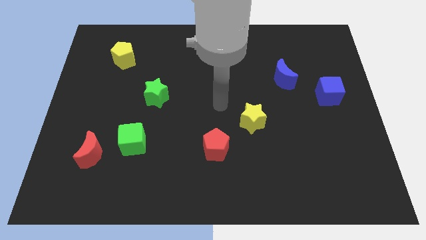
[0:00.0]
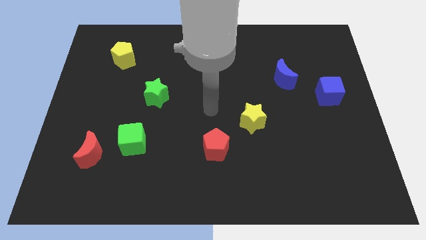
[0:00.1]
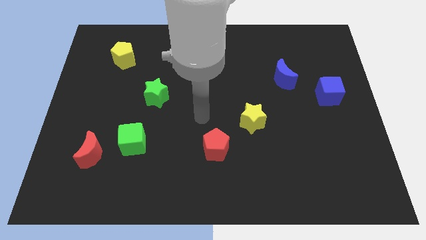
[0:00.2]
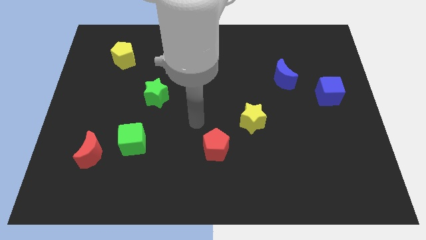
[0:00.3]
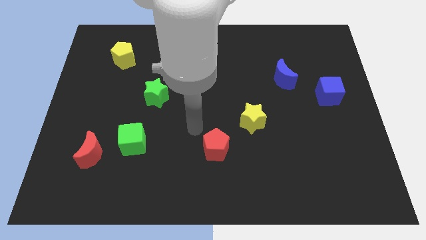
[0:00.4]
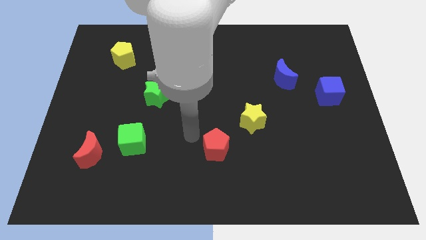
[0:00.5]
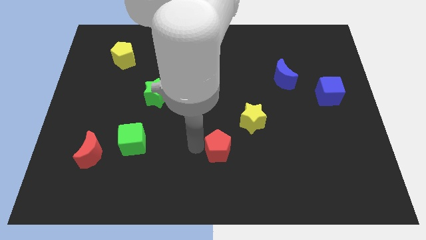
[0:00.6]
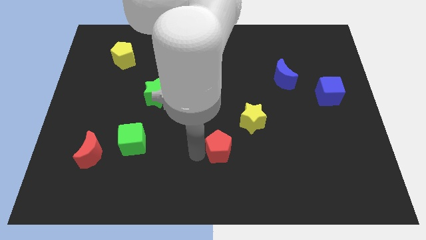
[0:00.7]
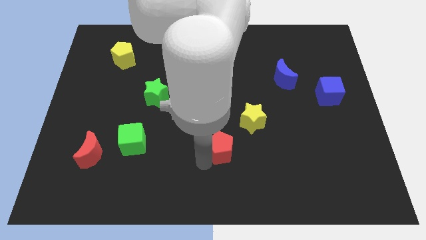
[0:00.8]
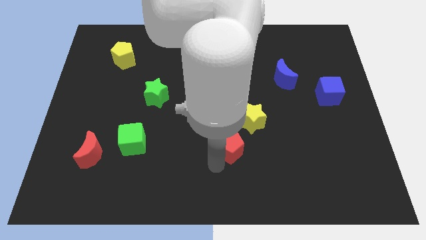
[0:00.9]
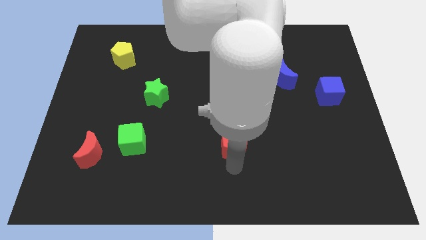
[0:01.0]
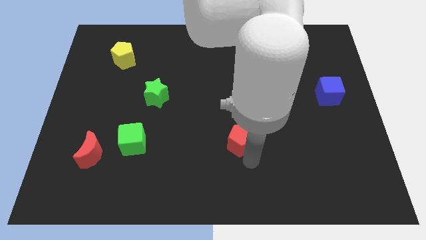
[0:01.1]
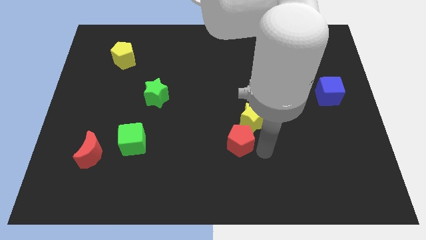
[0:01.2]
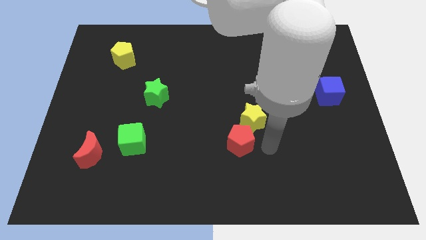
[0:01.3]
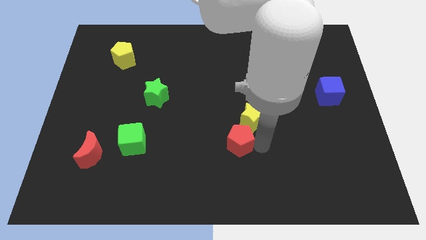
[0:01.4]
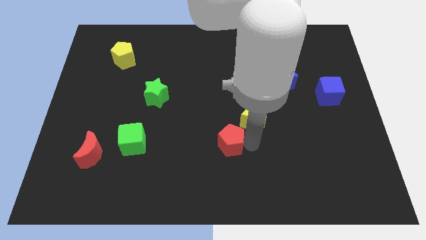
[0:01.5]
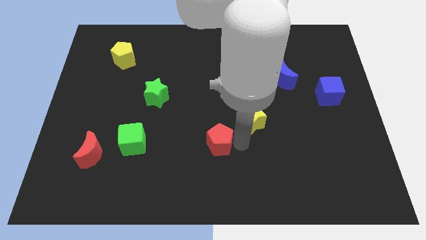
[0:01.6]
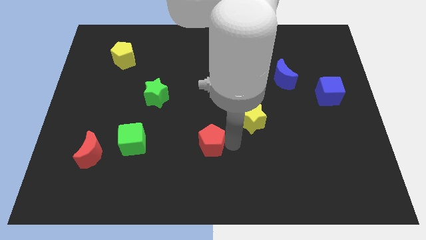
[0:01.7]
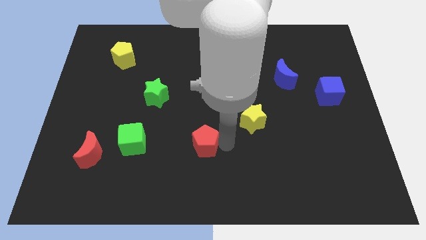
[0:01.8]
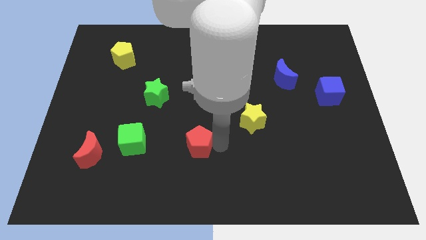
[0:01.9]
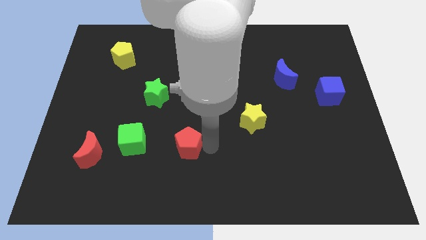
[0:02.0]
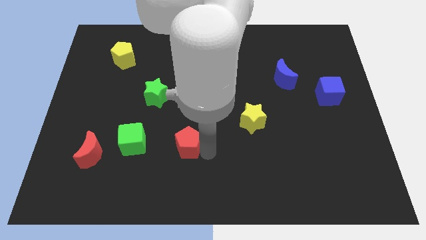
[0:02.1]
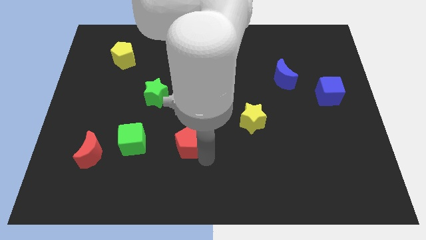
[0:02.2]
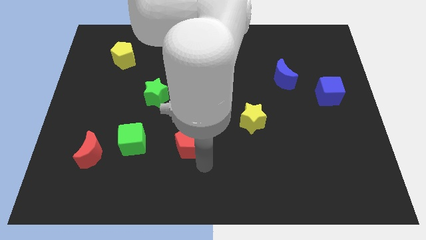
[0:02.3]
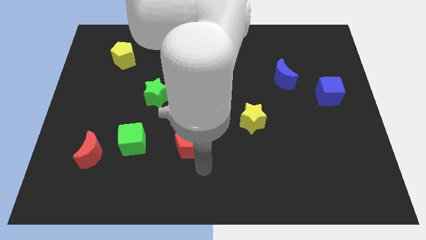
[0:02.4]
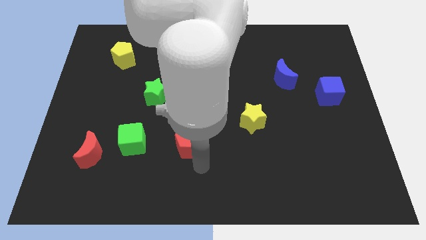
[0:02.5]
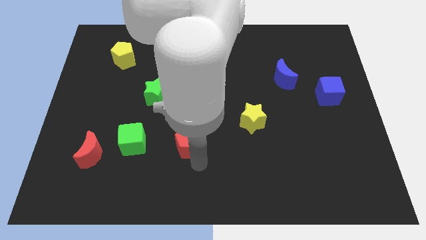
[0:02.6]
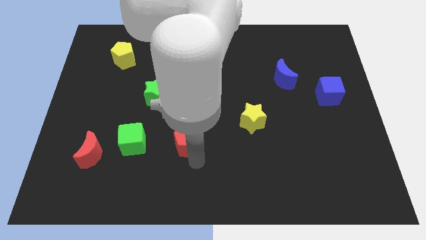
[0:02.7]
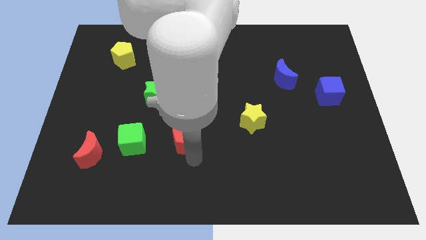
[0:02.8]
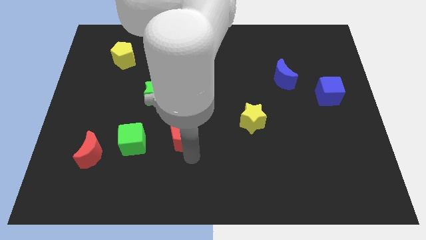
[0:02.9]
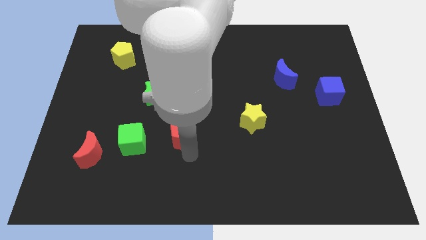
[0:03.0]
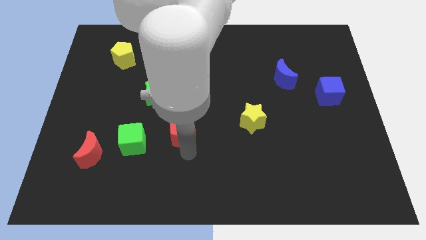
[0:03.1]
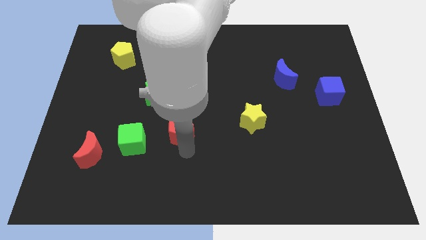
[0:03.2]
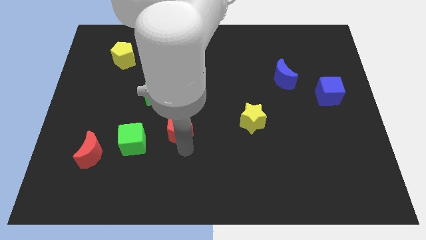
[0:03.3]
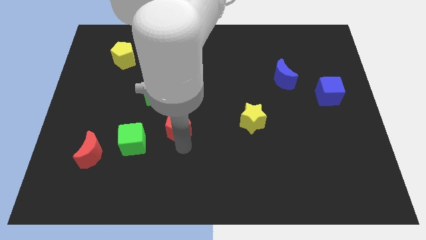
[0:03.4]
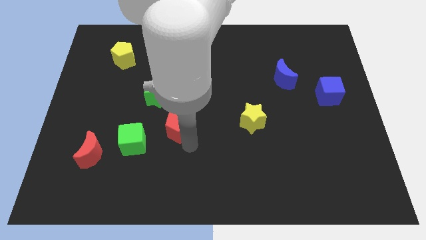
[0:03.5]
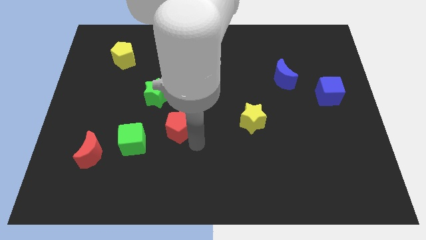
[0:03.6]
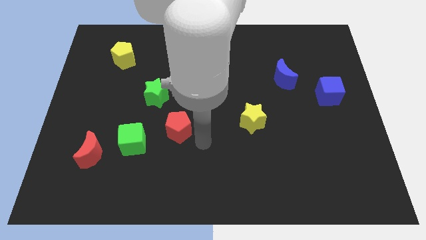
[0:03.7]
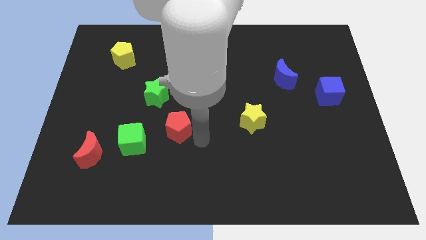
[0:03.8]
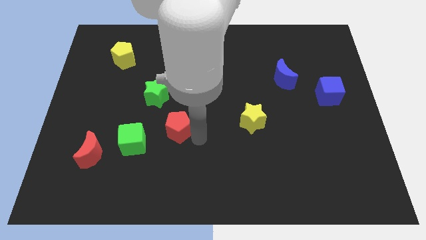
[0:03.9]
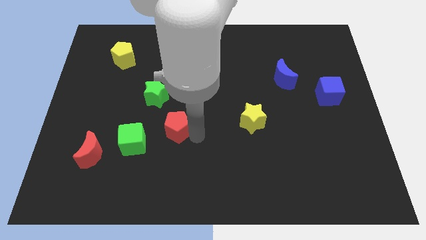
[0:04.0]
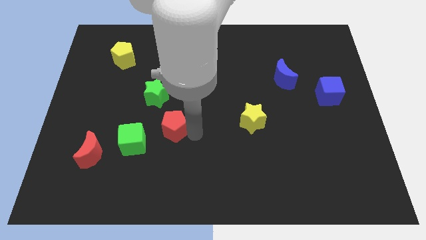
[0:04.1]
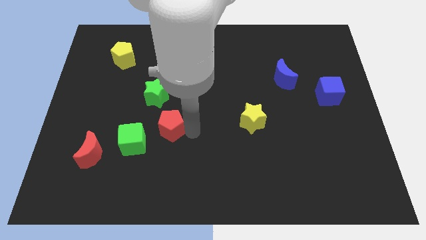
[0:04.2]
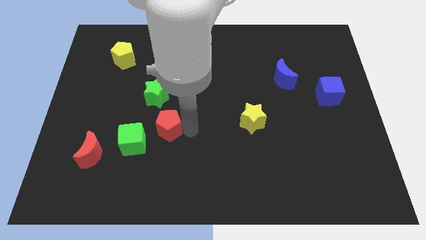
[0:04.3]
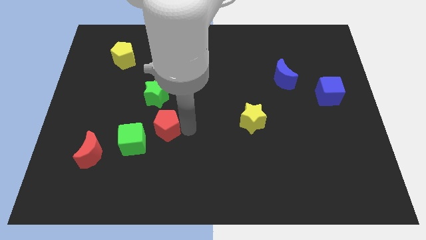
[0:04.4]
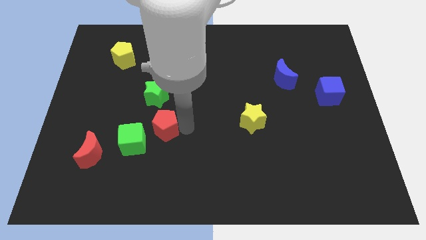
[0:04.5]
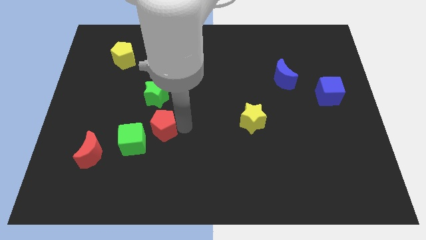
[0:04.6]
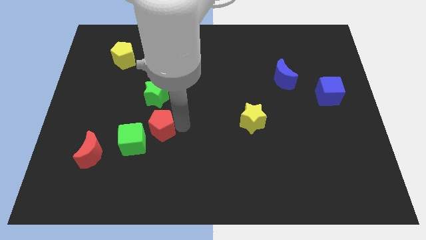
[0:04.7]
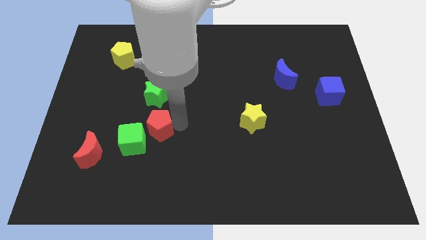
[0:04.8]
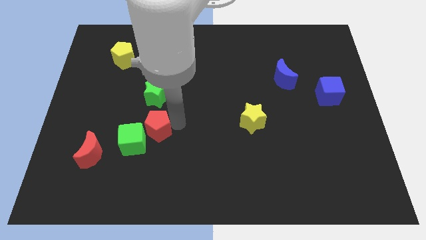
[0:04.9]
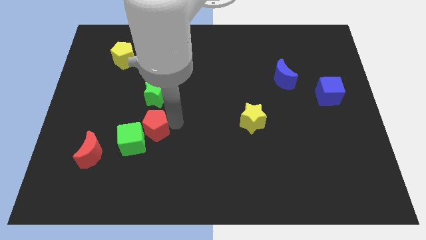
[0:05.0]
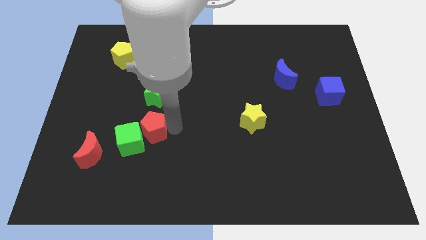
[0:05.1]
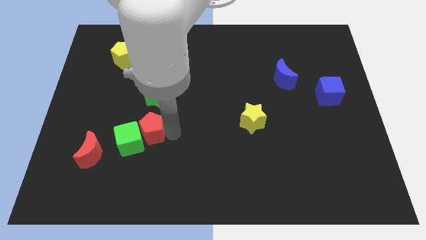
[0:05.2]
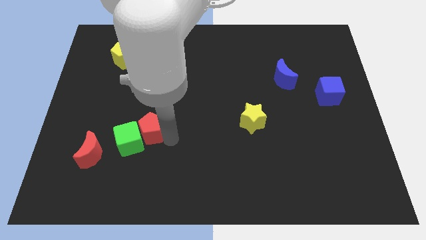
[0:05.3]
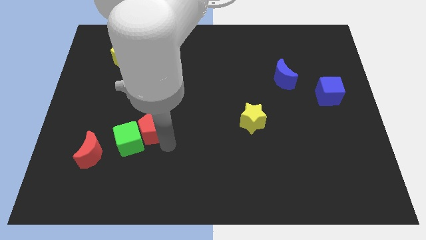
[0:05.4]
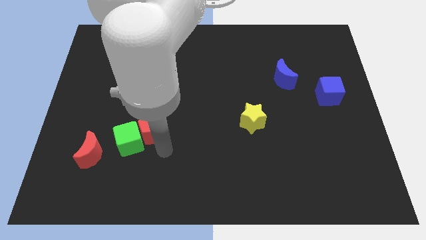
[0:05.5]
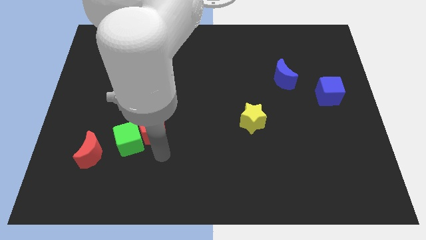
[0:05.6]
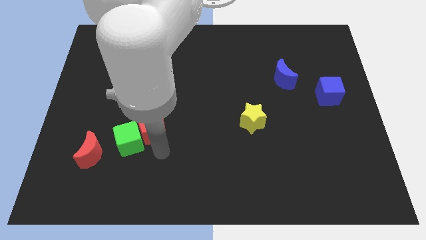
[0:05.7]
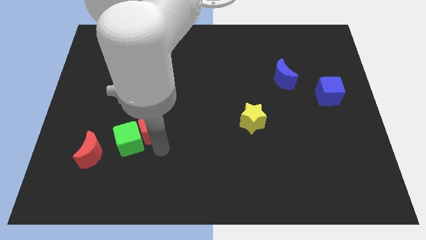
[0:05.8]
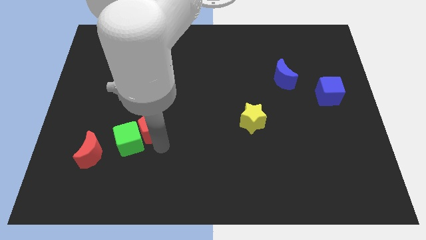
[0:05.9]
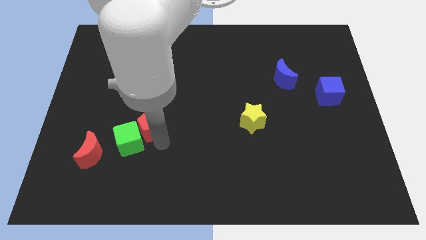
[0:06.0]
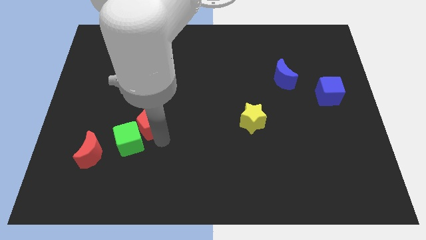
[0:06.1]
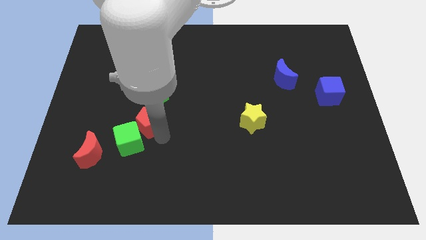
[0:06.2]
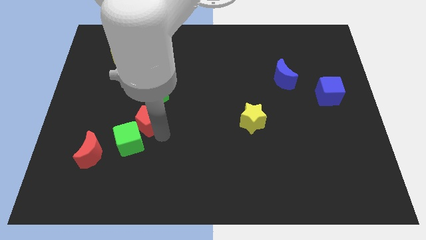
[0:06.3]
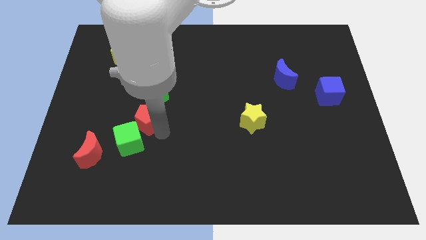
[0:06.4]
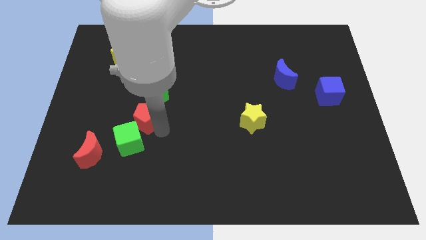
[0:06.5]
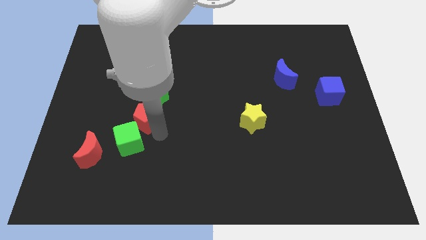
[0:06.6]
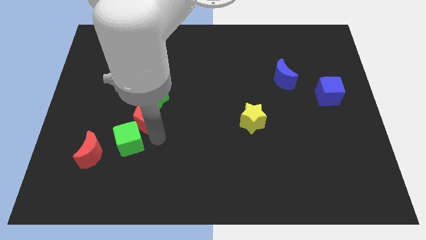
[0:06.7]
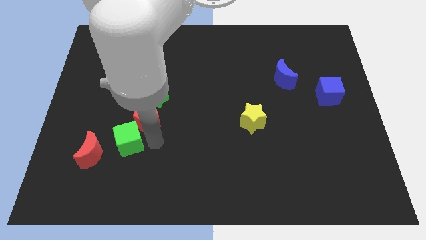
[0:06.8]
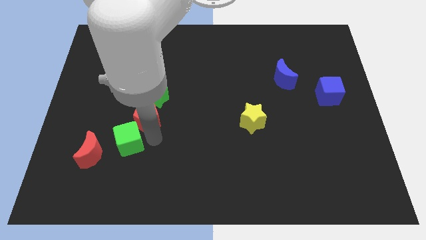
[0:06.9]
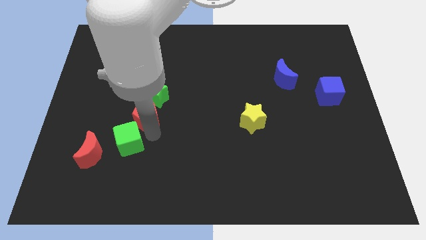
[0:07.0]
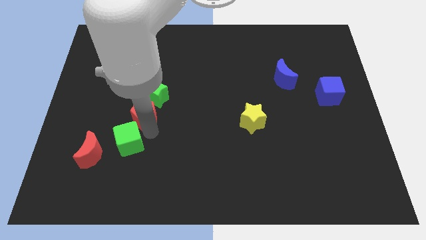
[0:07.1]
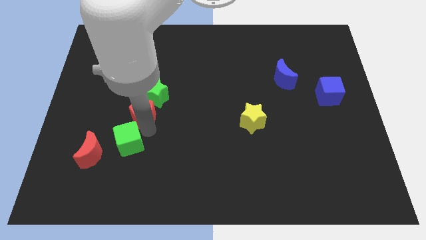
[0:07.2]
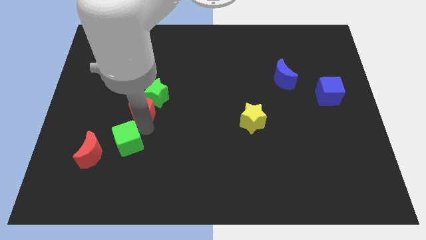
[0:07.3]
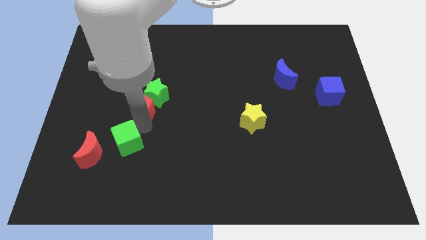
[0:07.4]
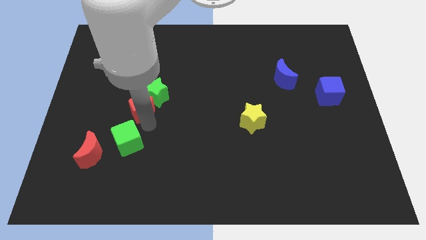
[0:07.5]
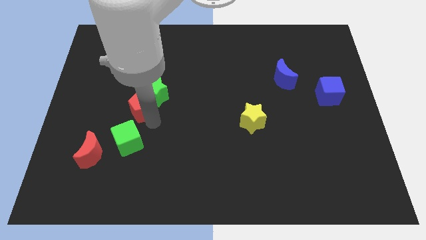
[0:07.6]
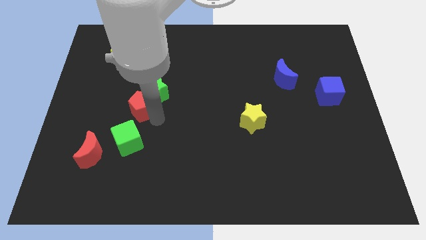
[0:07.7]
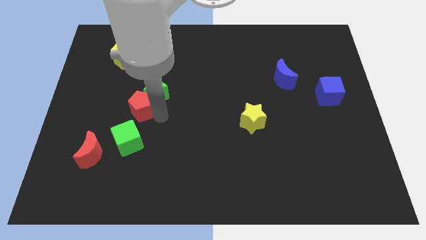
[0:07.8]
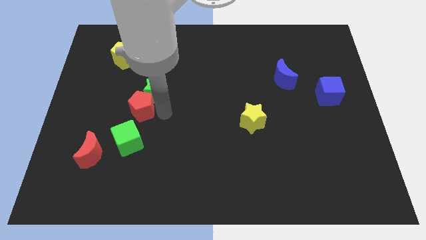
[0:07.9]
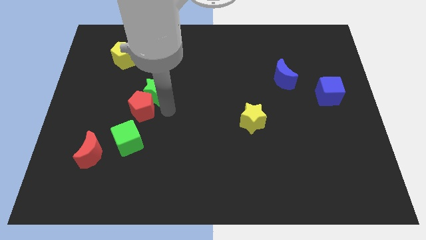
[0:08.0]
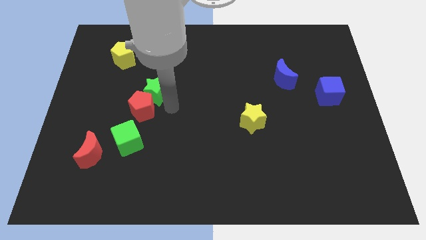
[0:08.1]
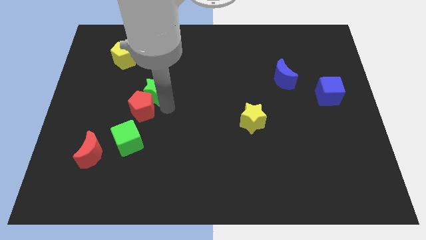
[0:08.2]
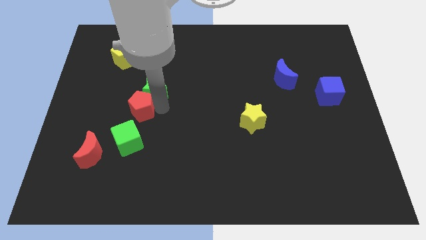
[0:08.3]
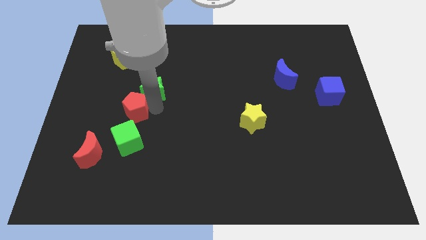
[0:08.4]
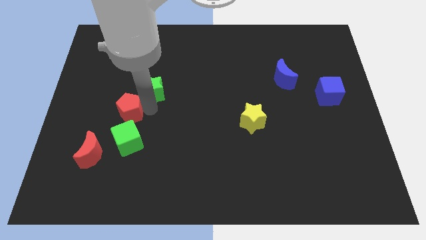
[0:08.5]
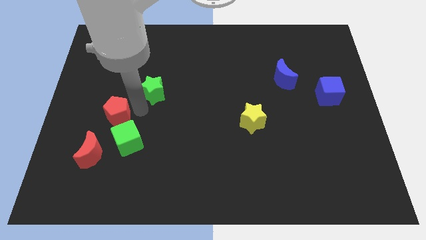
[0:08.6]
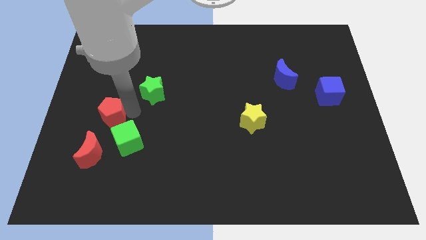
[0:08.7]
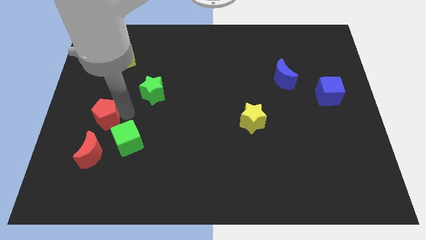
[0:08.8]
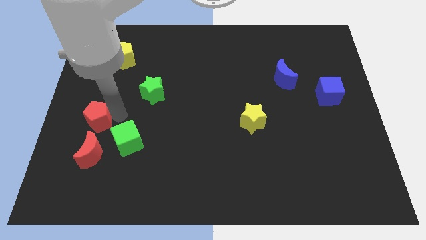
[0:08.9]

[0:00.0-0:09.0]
slide the red pentagon to the left side of the board
